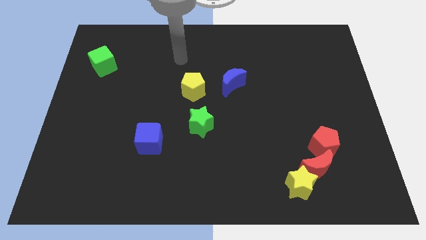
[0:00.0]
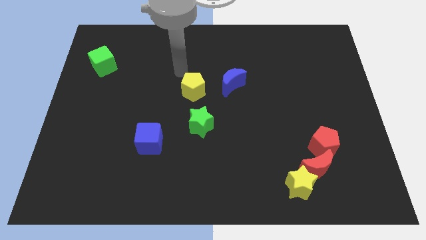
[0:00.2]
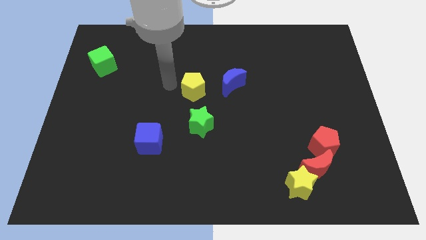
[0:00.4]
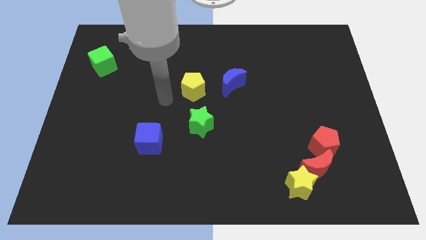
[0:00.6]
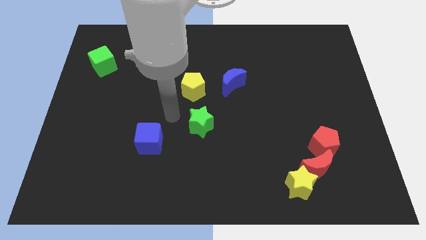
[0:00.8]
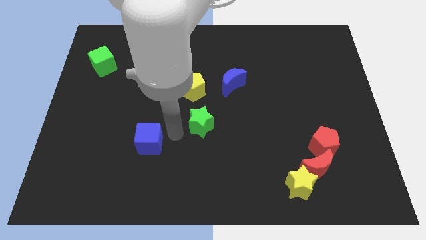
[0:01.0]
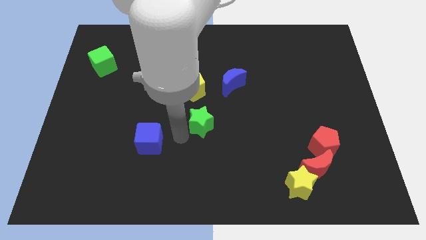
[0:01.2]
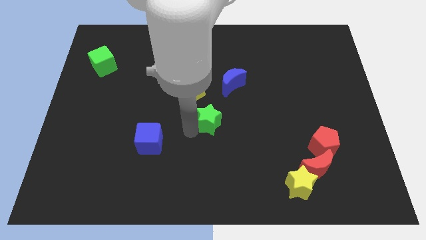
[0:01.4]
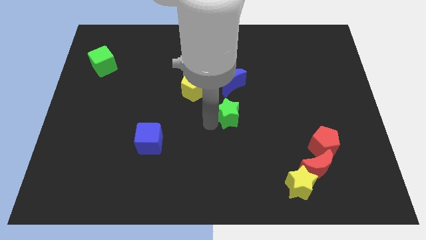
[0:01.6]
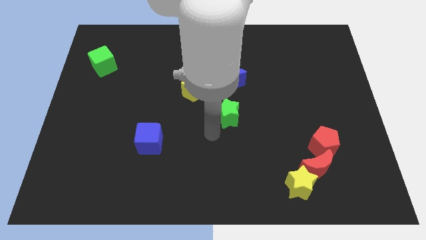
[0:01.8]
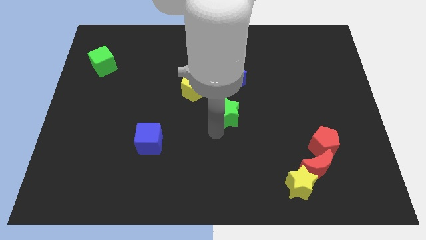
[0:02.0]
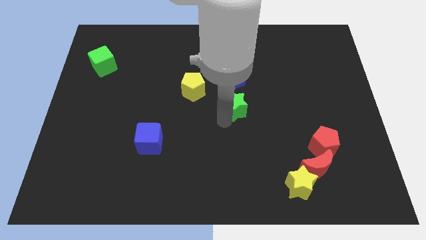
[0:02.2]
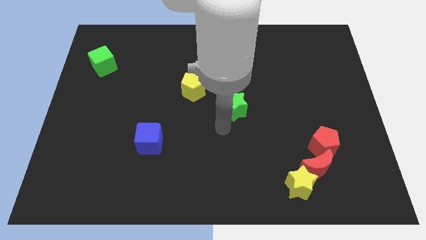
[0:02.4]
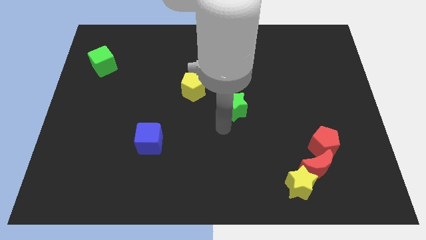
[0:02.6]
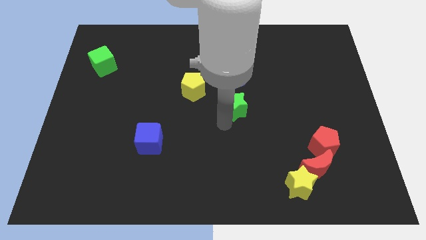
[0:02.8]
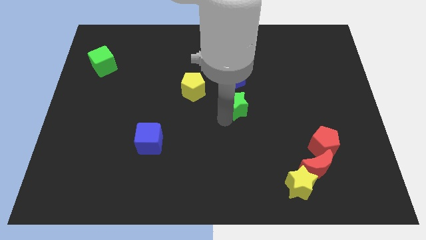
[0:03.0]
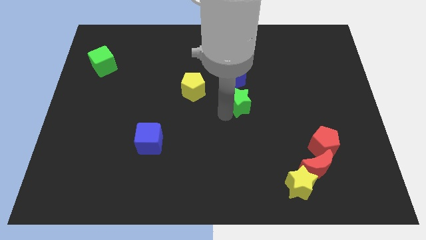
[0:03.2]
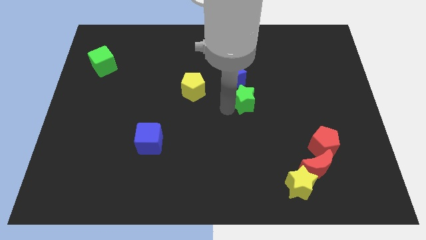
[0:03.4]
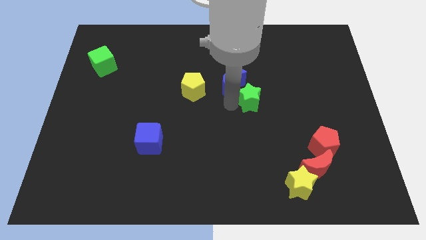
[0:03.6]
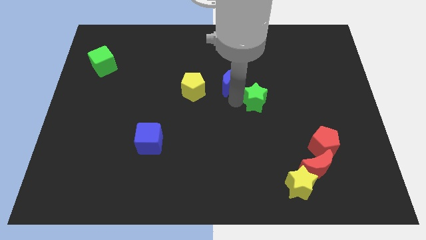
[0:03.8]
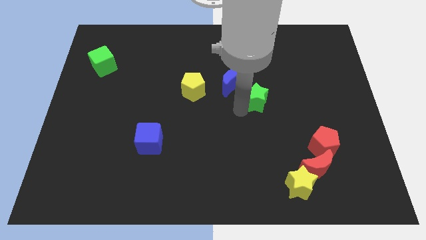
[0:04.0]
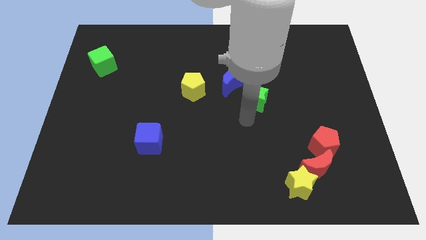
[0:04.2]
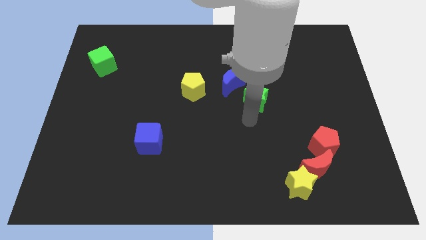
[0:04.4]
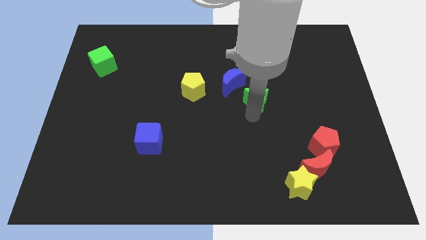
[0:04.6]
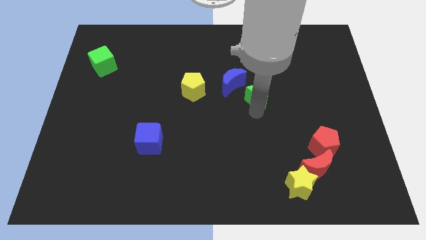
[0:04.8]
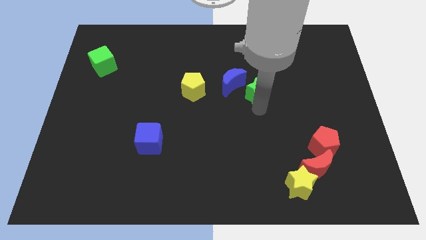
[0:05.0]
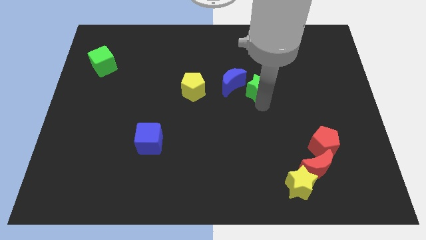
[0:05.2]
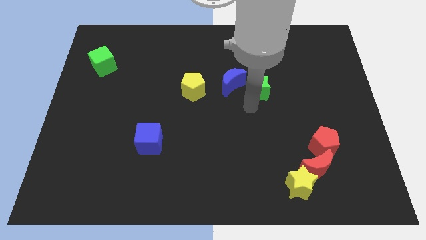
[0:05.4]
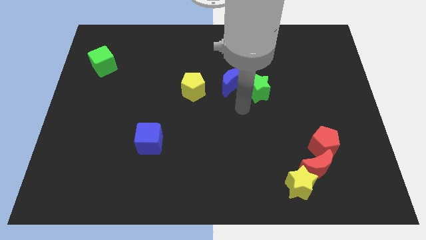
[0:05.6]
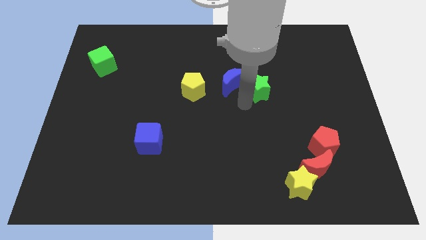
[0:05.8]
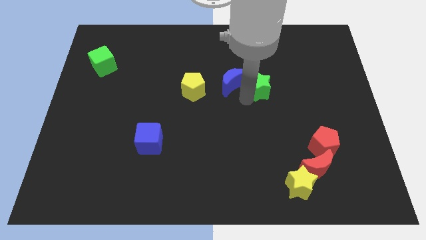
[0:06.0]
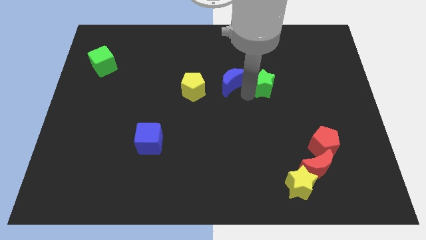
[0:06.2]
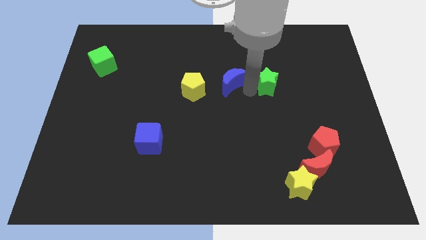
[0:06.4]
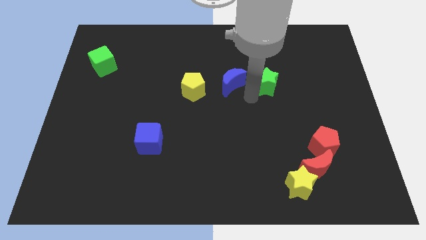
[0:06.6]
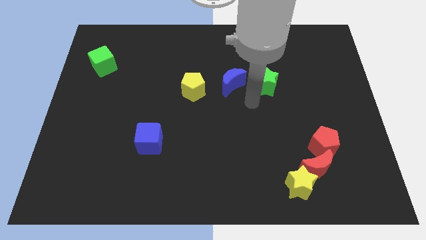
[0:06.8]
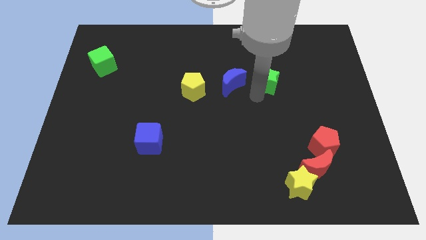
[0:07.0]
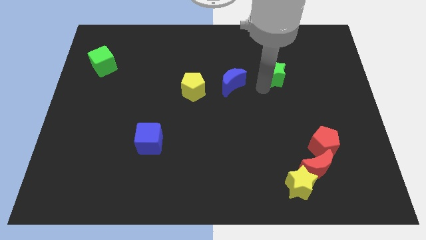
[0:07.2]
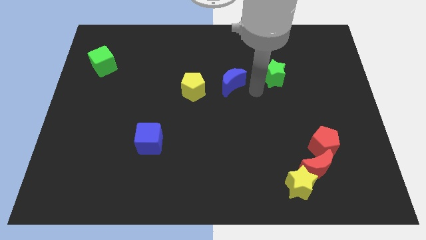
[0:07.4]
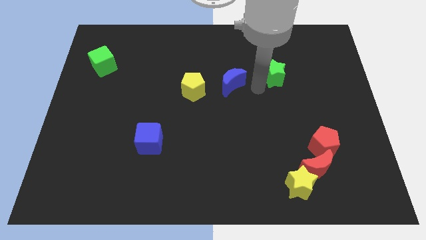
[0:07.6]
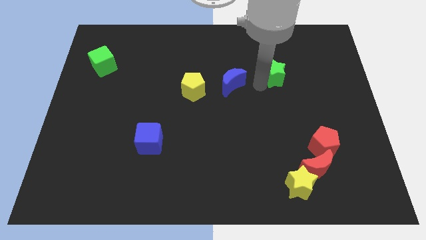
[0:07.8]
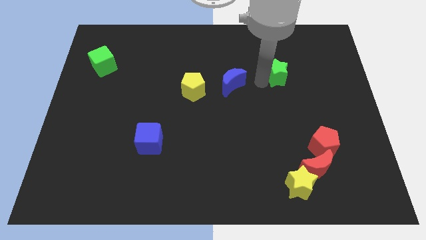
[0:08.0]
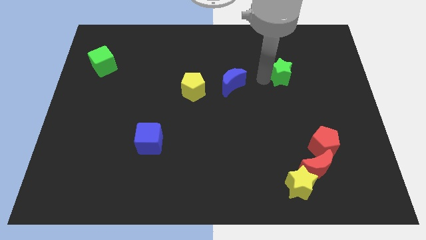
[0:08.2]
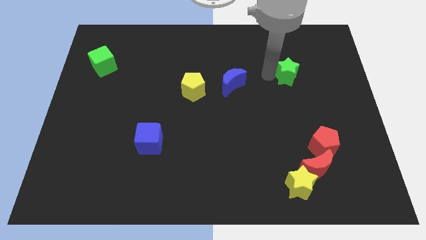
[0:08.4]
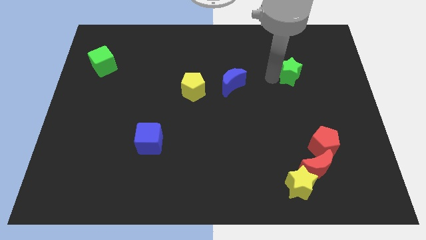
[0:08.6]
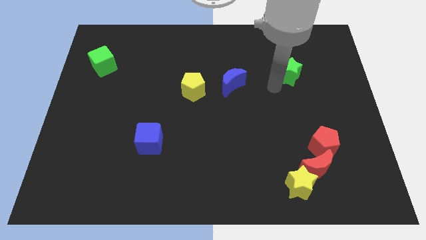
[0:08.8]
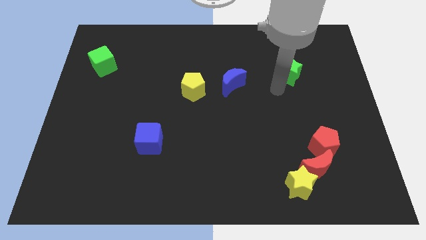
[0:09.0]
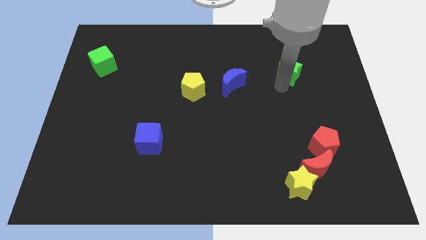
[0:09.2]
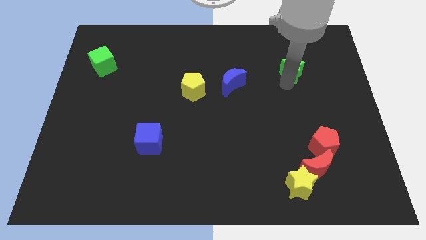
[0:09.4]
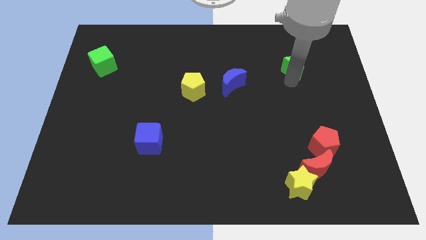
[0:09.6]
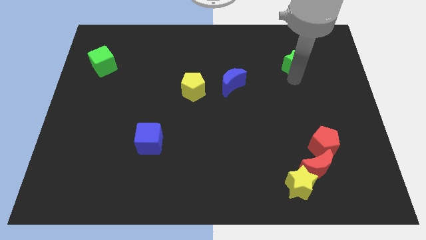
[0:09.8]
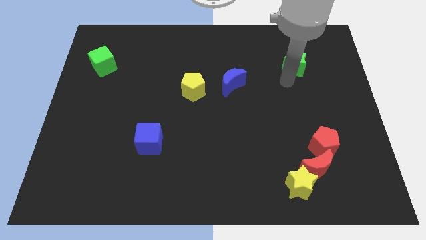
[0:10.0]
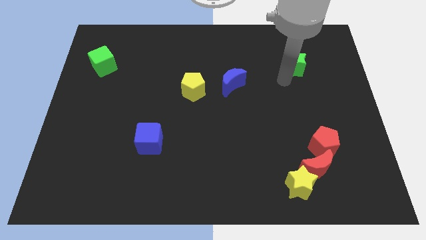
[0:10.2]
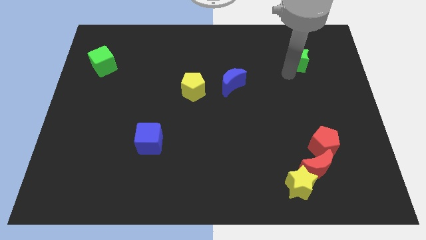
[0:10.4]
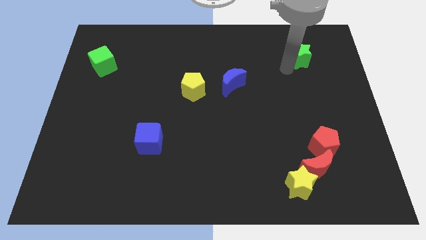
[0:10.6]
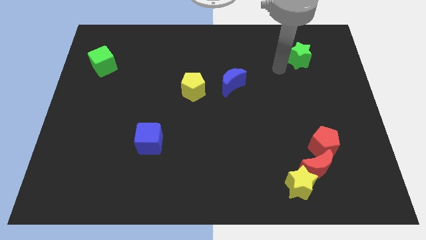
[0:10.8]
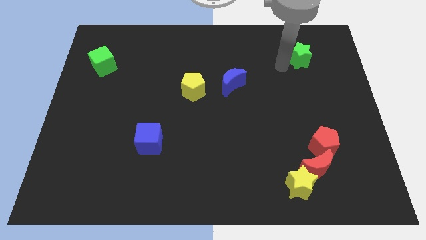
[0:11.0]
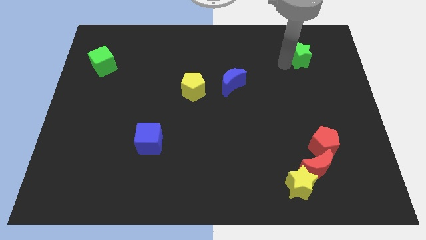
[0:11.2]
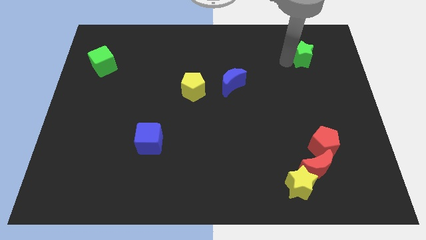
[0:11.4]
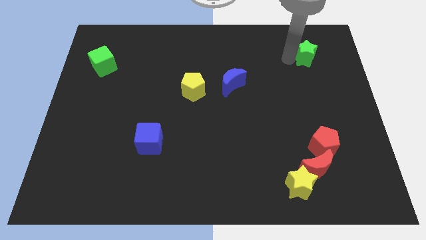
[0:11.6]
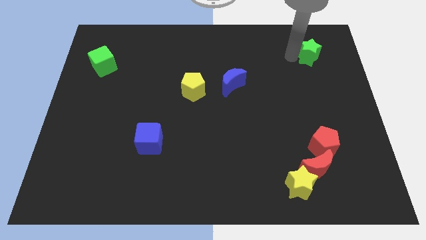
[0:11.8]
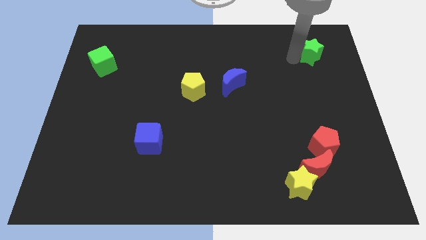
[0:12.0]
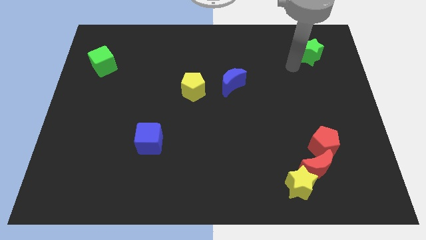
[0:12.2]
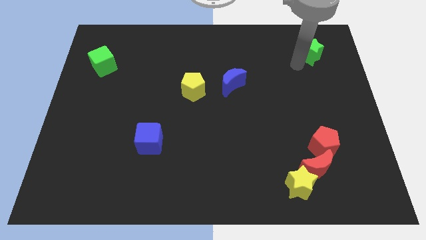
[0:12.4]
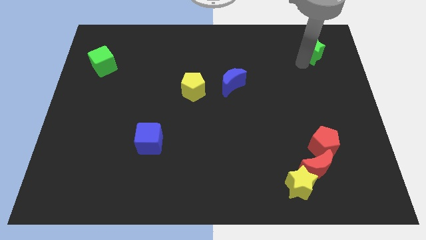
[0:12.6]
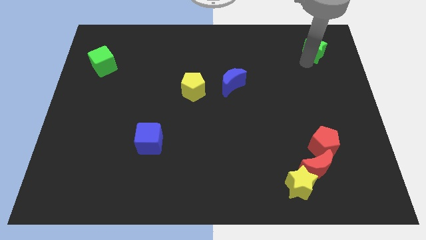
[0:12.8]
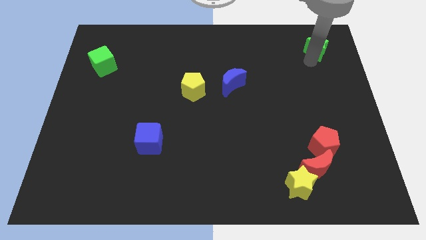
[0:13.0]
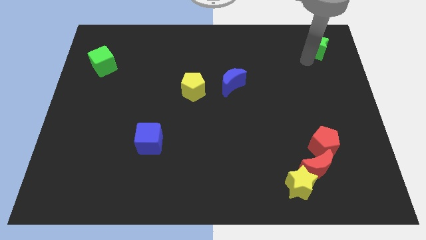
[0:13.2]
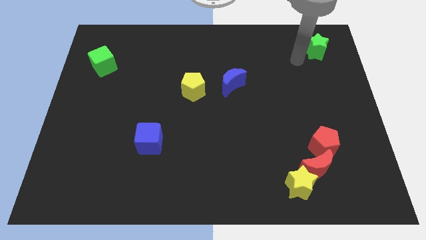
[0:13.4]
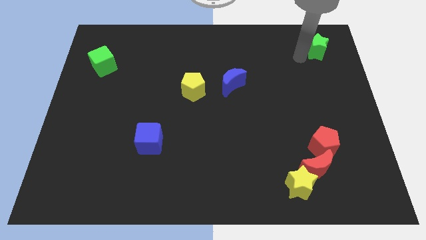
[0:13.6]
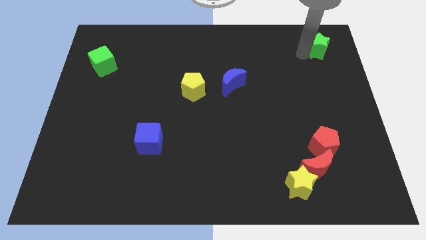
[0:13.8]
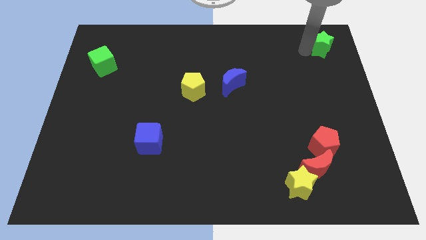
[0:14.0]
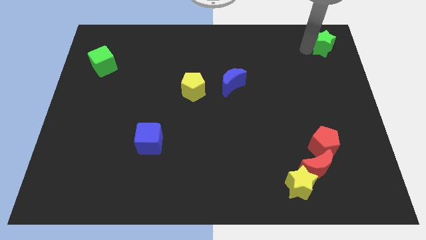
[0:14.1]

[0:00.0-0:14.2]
move the green star to the top right of the board
